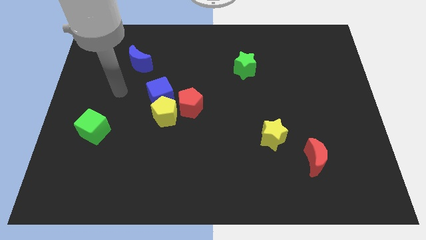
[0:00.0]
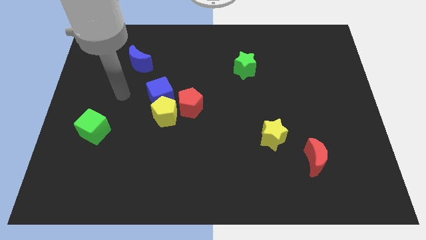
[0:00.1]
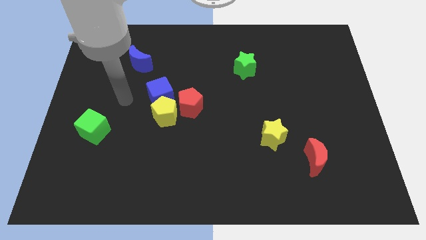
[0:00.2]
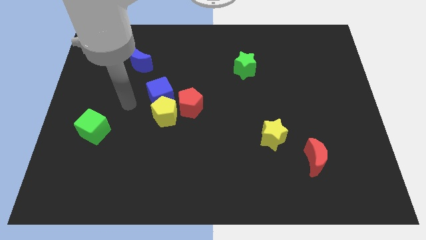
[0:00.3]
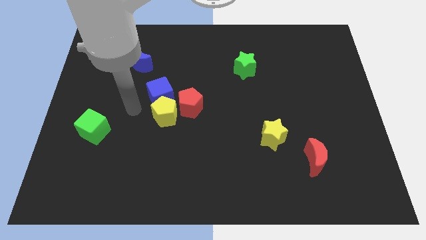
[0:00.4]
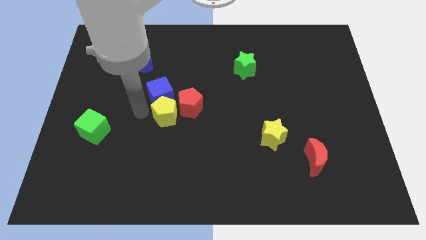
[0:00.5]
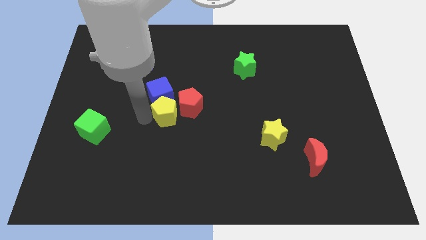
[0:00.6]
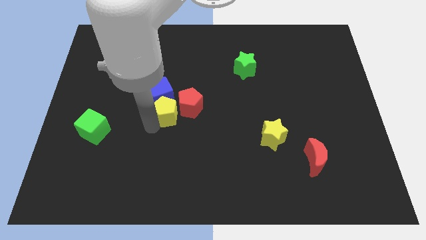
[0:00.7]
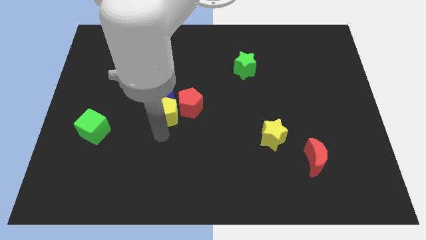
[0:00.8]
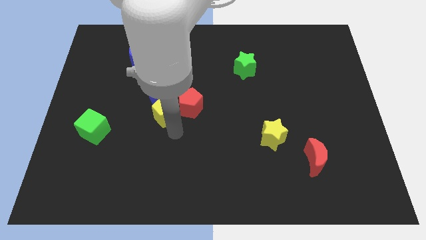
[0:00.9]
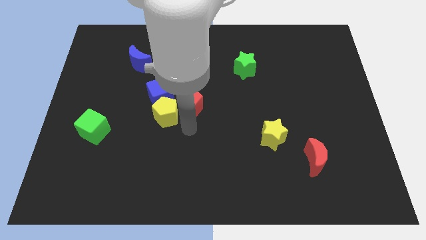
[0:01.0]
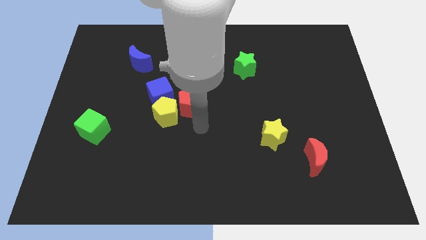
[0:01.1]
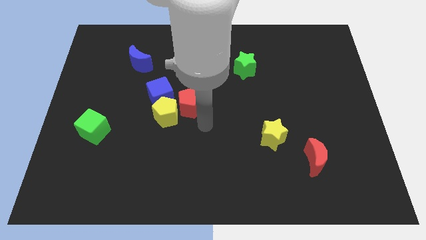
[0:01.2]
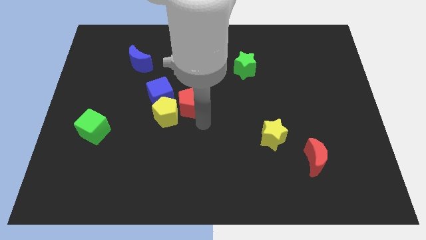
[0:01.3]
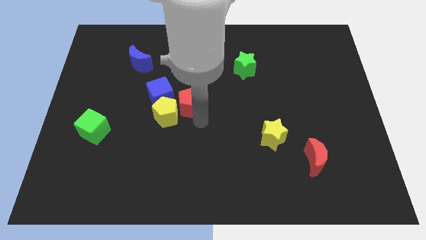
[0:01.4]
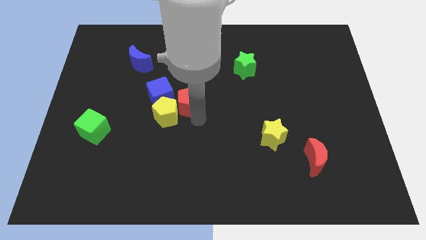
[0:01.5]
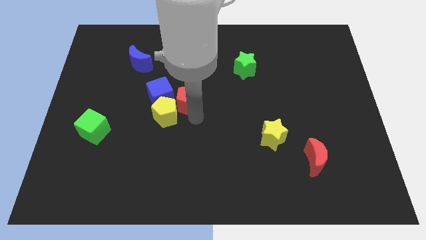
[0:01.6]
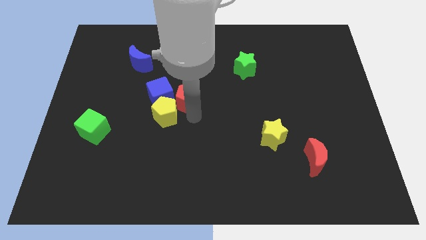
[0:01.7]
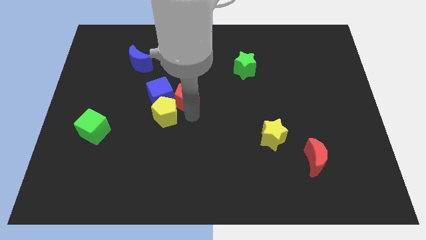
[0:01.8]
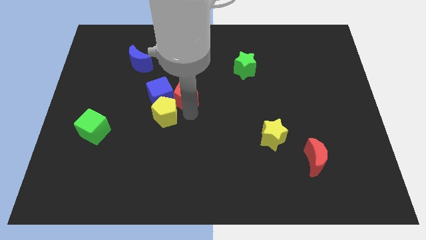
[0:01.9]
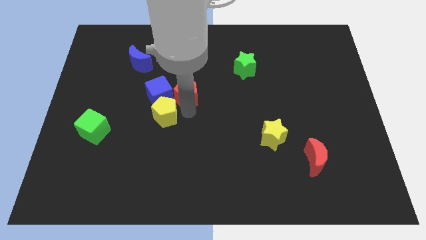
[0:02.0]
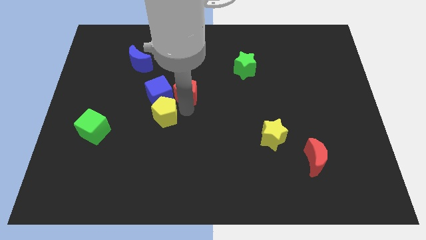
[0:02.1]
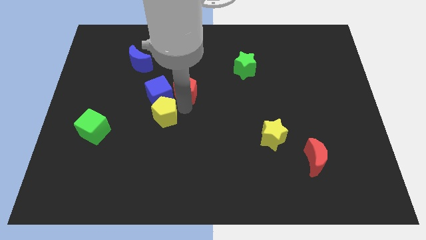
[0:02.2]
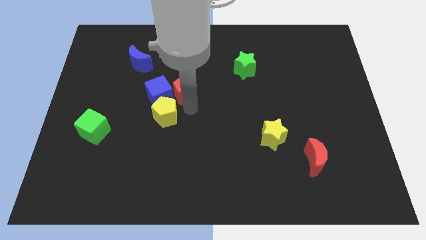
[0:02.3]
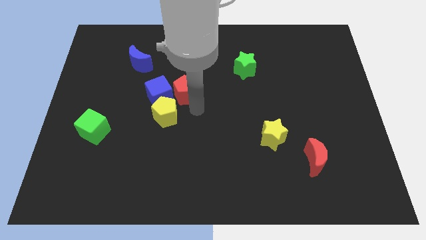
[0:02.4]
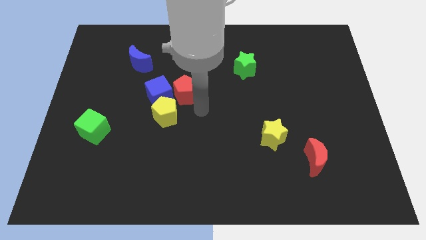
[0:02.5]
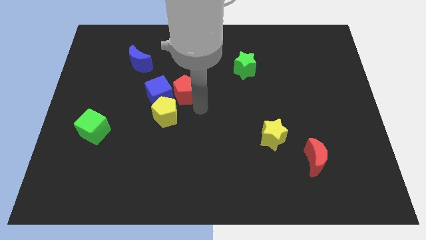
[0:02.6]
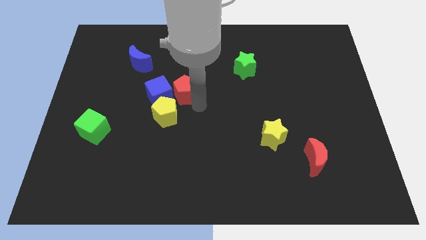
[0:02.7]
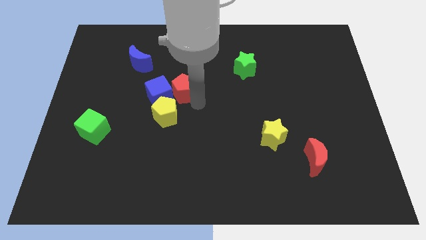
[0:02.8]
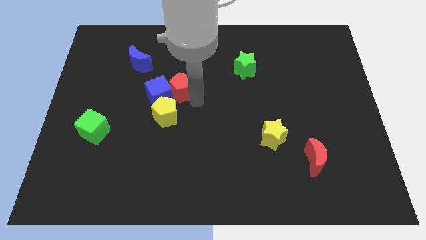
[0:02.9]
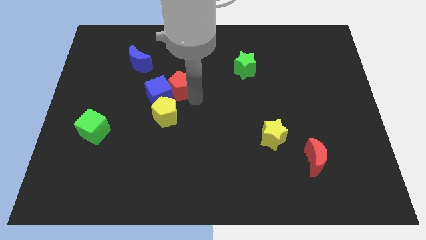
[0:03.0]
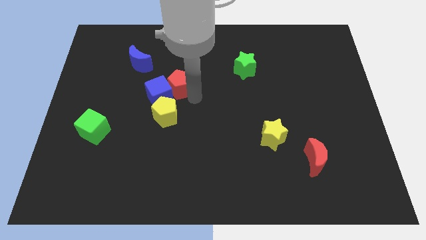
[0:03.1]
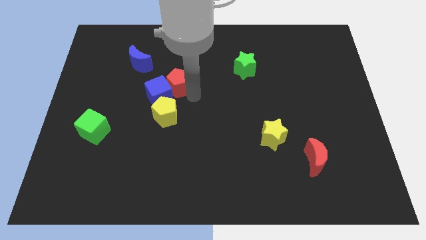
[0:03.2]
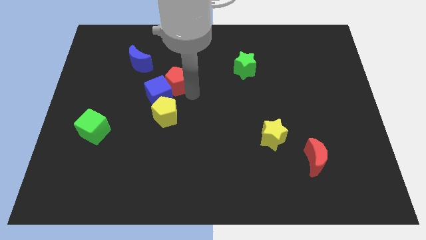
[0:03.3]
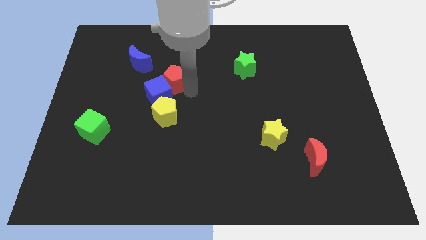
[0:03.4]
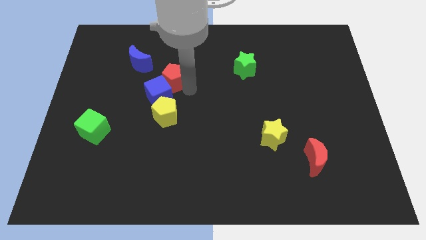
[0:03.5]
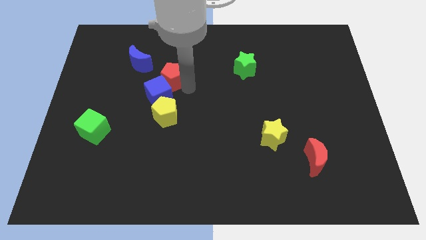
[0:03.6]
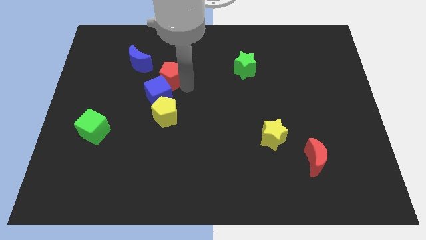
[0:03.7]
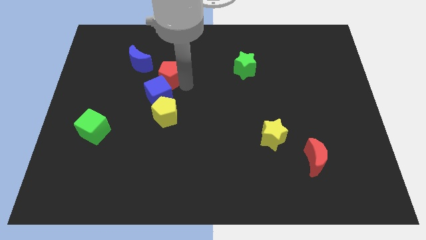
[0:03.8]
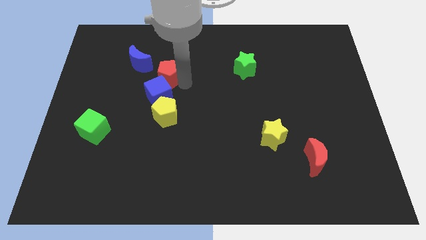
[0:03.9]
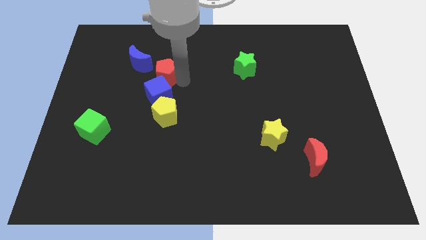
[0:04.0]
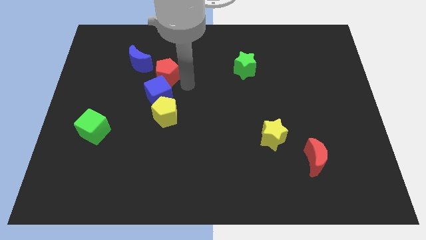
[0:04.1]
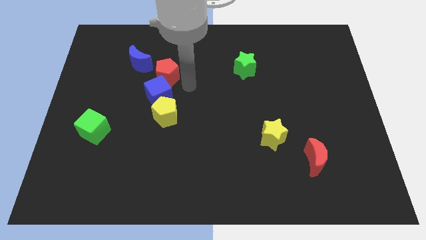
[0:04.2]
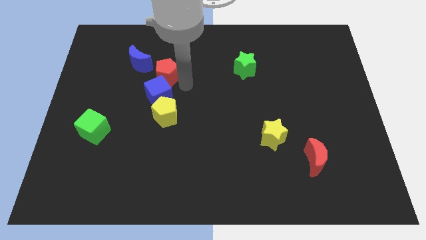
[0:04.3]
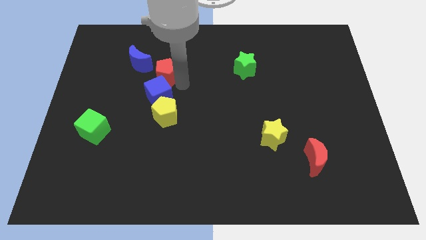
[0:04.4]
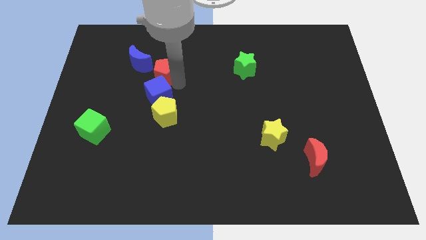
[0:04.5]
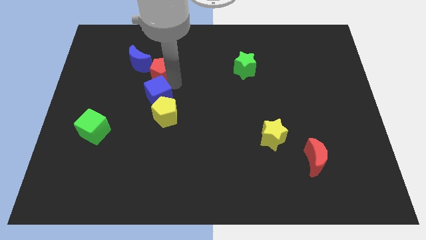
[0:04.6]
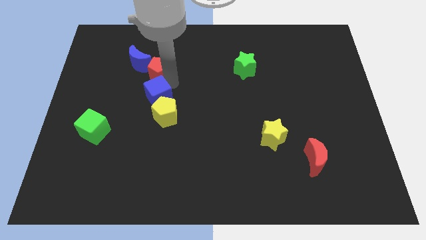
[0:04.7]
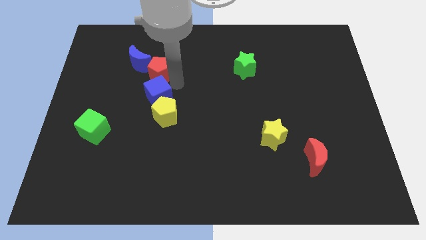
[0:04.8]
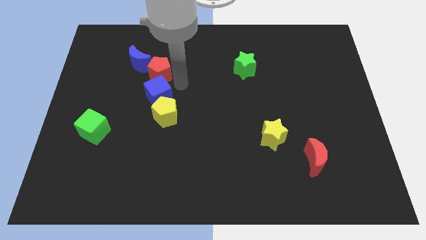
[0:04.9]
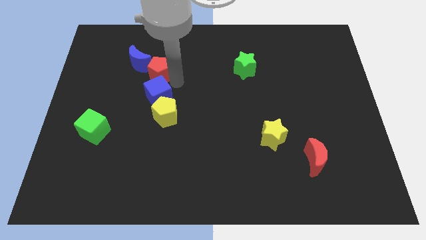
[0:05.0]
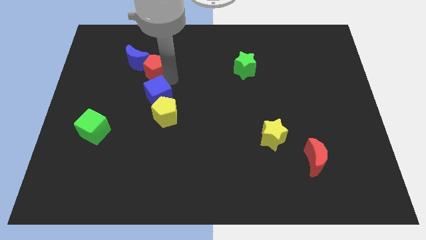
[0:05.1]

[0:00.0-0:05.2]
put the red pentagon close to the blue moon

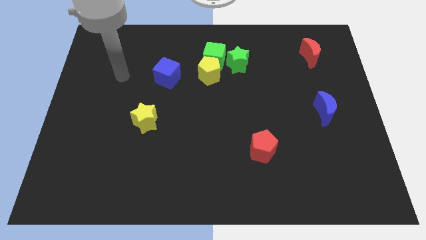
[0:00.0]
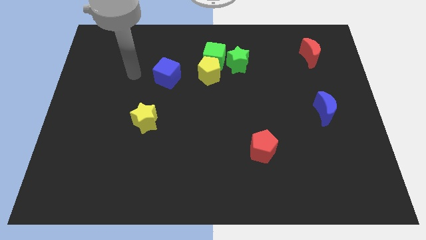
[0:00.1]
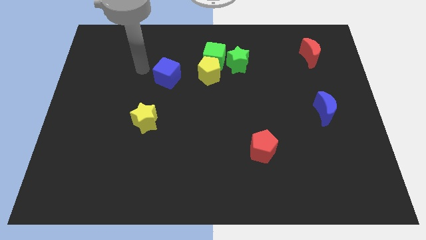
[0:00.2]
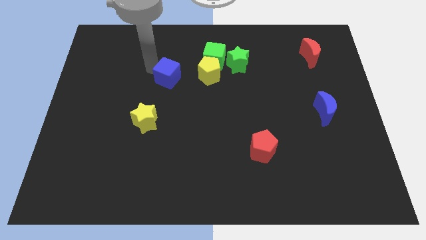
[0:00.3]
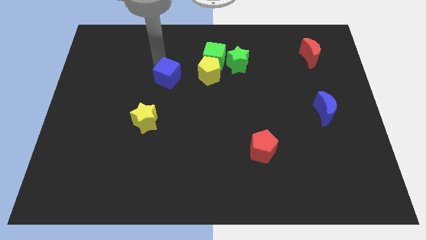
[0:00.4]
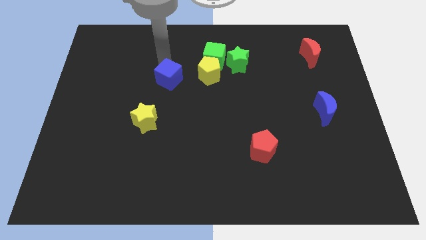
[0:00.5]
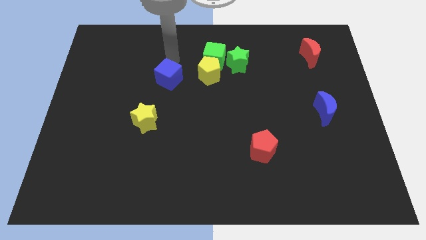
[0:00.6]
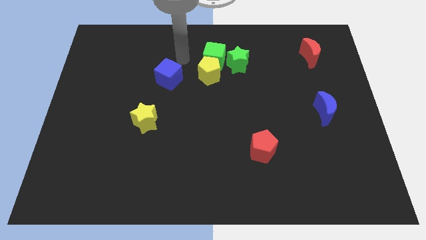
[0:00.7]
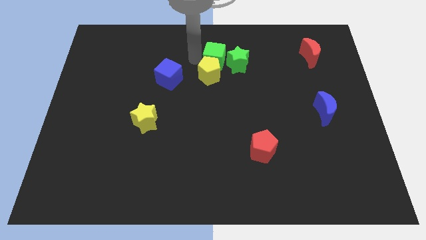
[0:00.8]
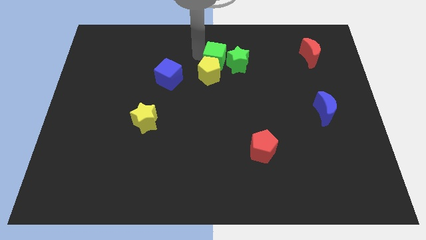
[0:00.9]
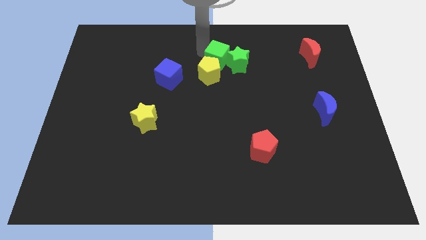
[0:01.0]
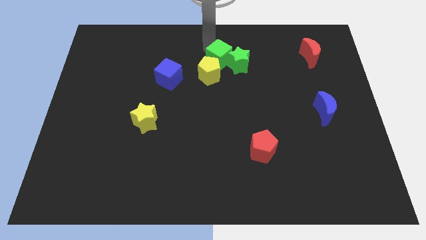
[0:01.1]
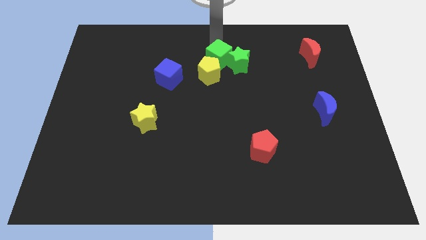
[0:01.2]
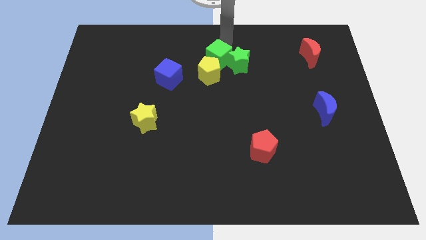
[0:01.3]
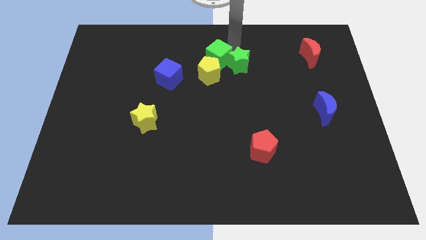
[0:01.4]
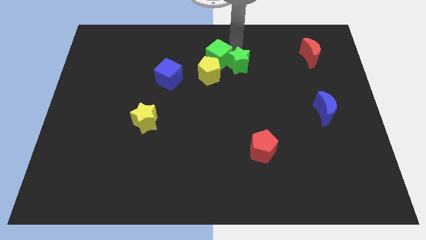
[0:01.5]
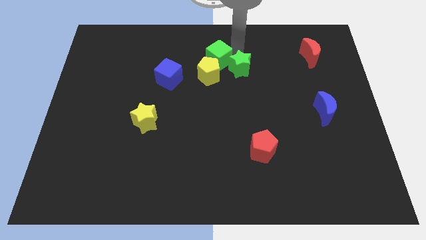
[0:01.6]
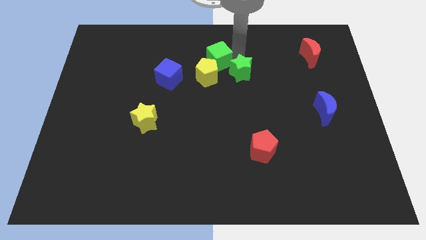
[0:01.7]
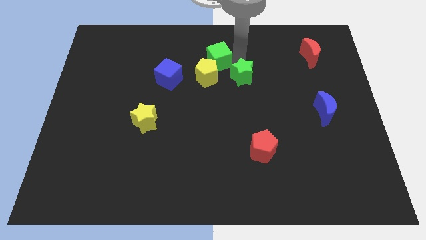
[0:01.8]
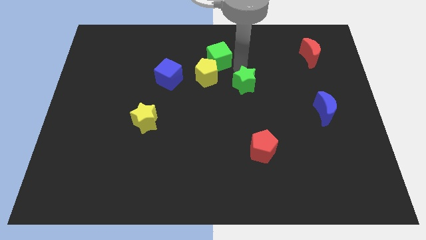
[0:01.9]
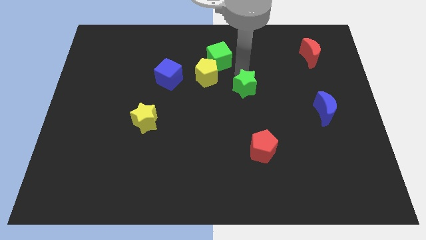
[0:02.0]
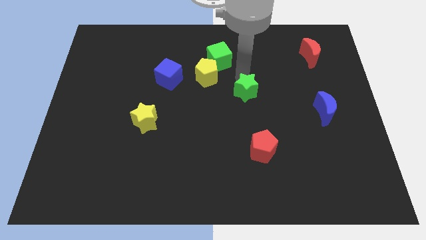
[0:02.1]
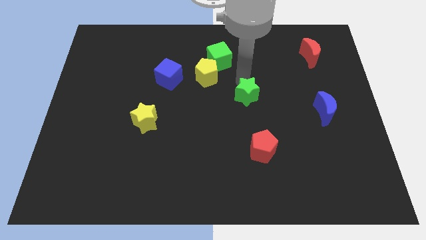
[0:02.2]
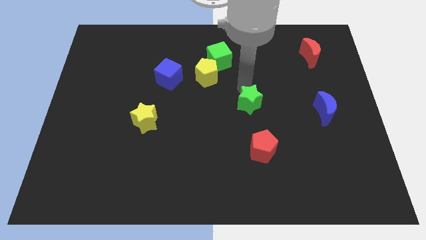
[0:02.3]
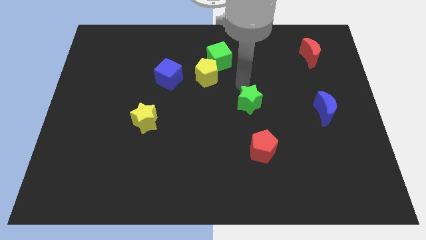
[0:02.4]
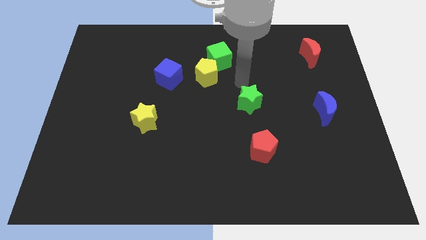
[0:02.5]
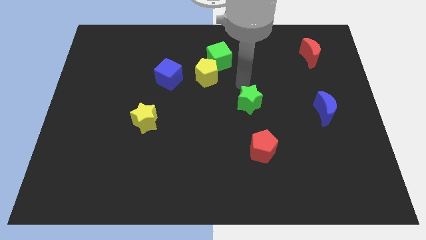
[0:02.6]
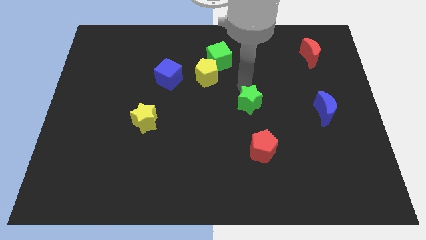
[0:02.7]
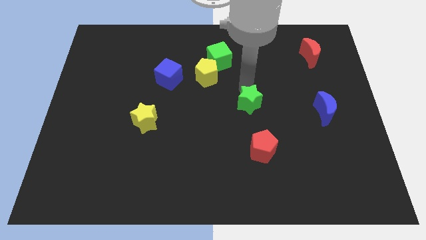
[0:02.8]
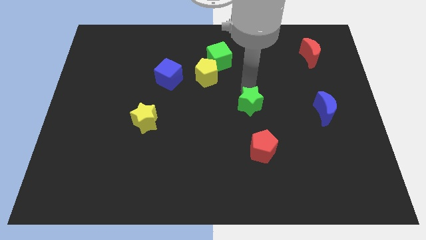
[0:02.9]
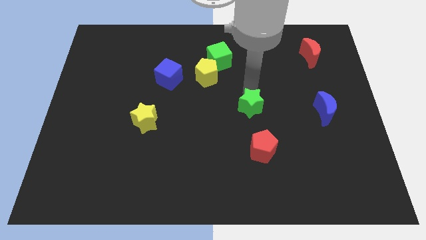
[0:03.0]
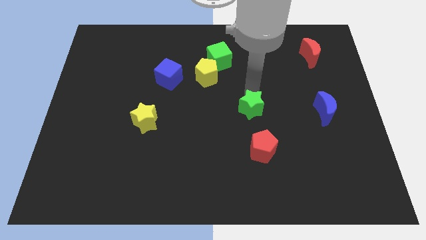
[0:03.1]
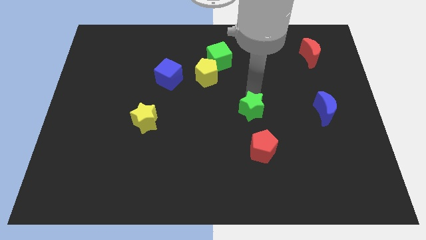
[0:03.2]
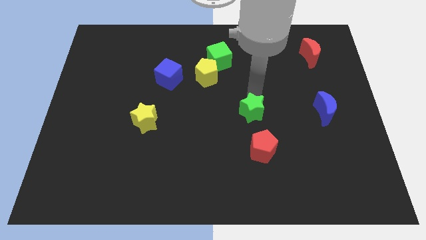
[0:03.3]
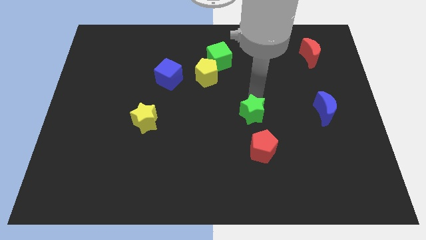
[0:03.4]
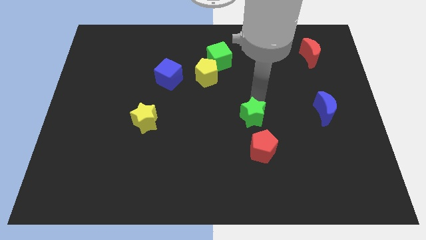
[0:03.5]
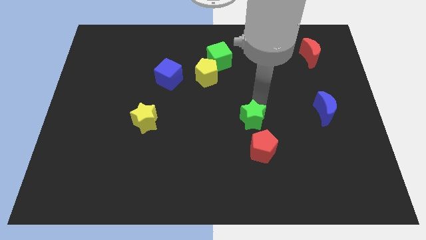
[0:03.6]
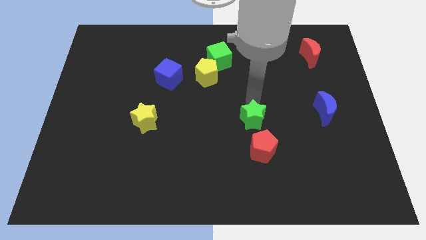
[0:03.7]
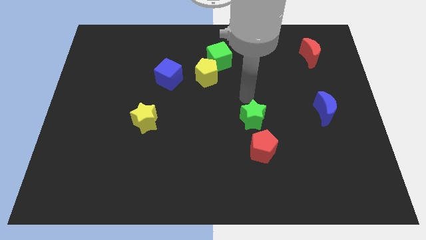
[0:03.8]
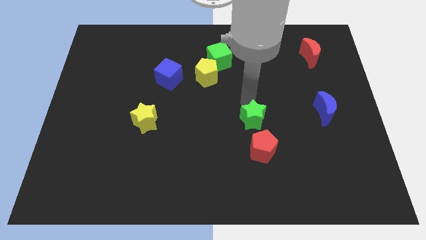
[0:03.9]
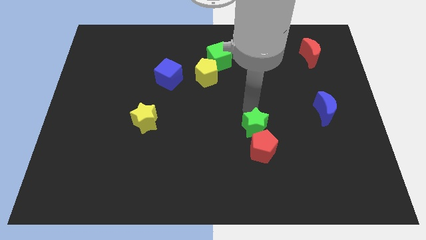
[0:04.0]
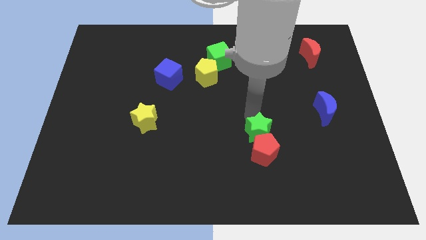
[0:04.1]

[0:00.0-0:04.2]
slide the green star towards the red pentagon
